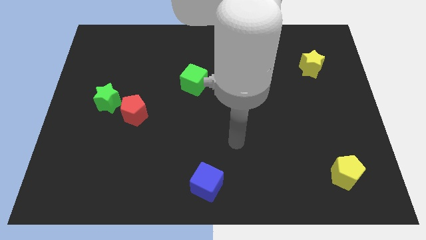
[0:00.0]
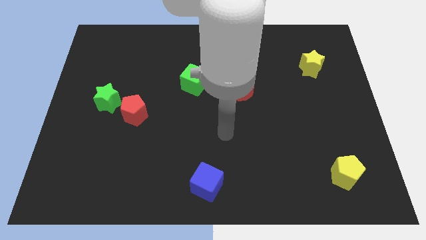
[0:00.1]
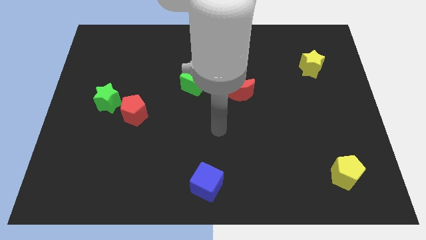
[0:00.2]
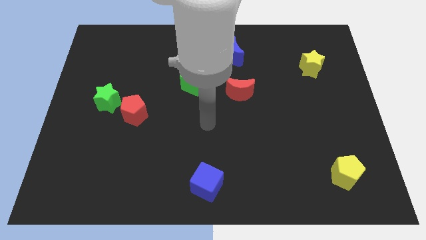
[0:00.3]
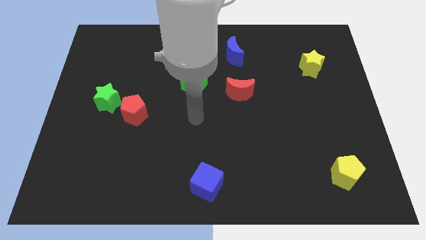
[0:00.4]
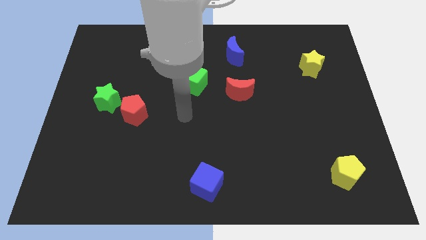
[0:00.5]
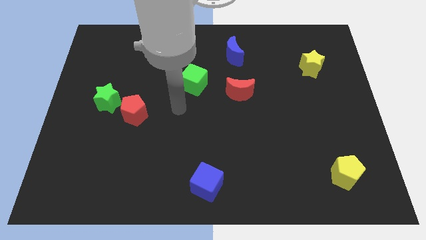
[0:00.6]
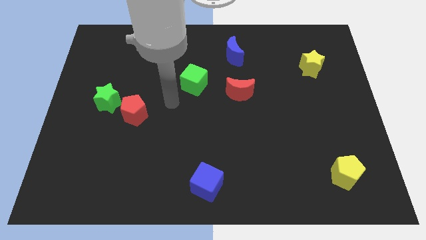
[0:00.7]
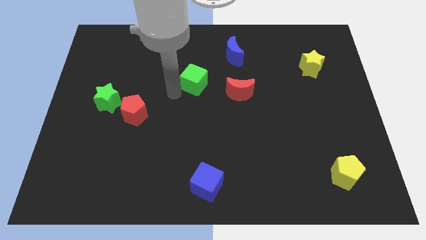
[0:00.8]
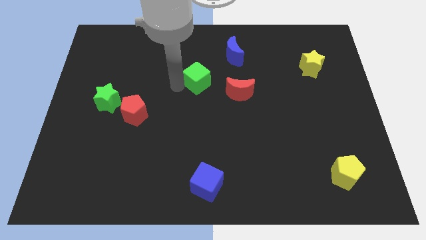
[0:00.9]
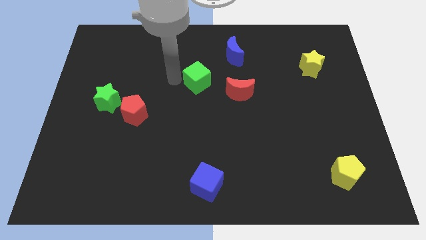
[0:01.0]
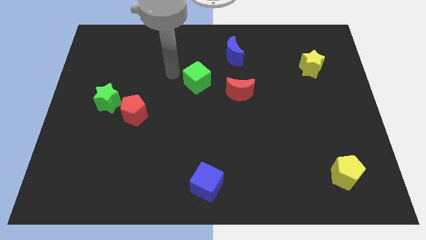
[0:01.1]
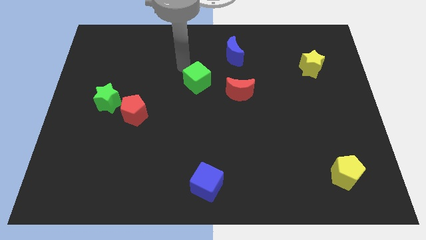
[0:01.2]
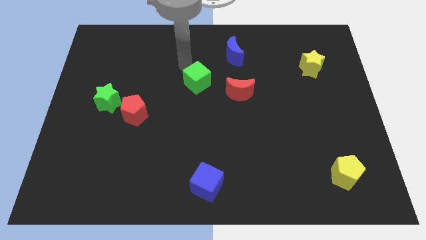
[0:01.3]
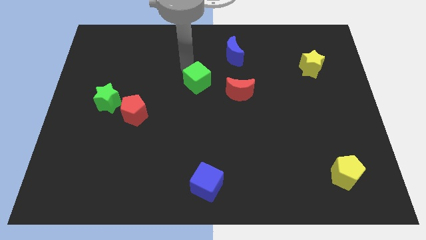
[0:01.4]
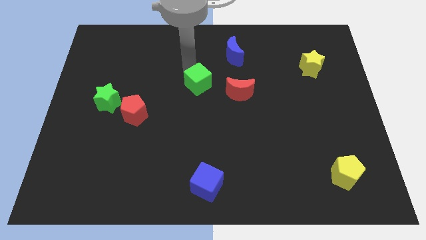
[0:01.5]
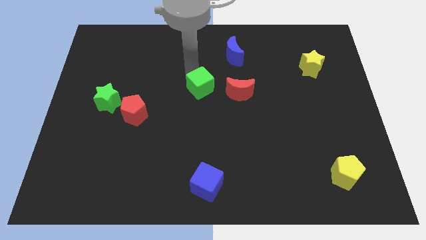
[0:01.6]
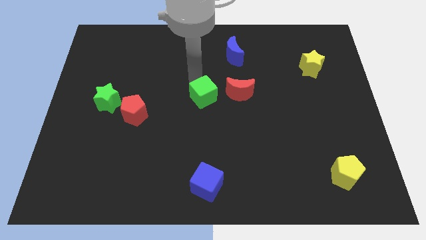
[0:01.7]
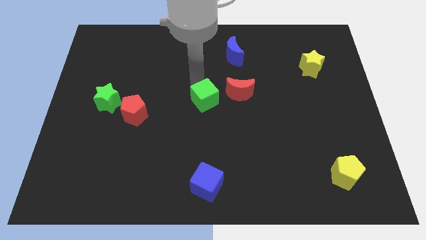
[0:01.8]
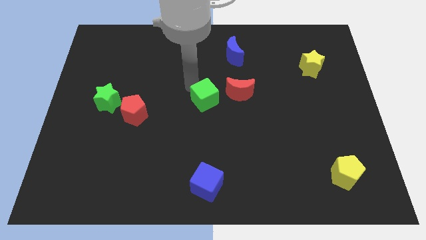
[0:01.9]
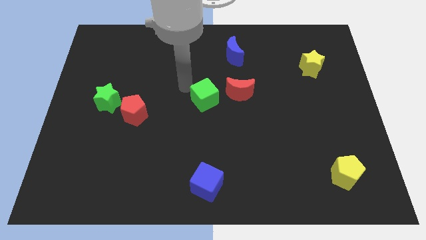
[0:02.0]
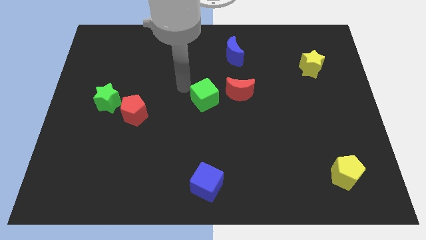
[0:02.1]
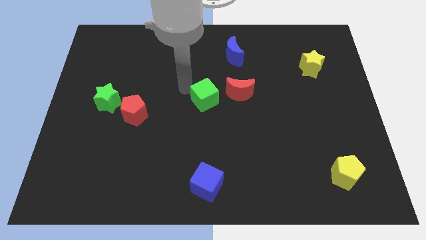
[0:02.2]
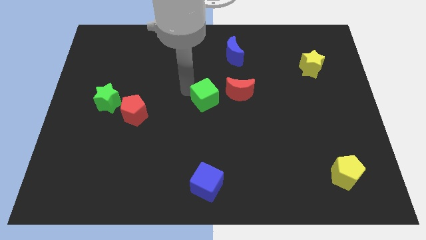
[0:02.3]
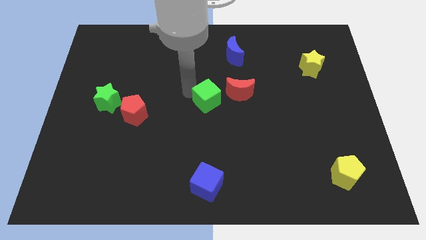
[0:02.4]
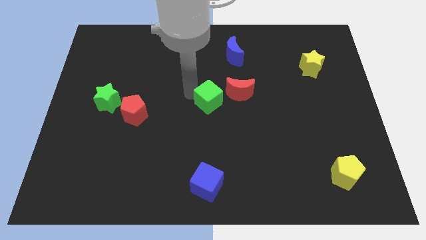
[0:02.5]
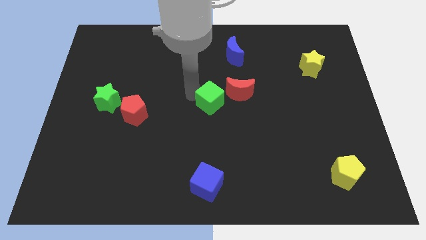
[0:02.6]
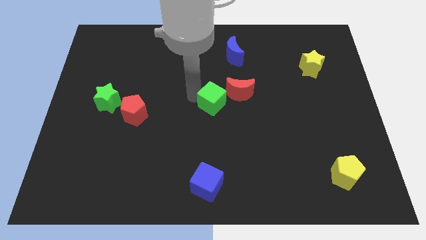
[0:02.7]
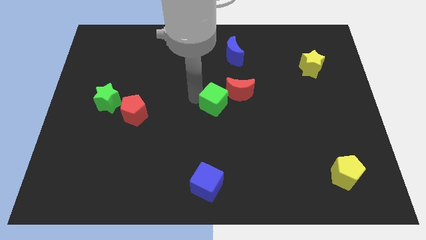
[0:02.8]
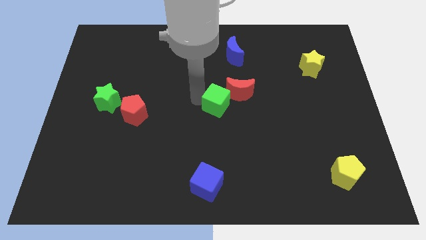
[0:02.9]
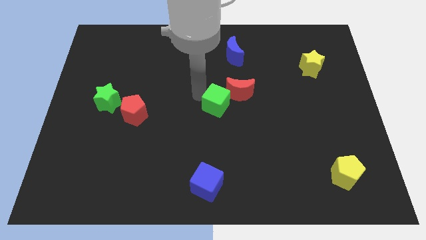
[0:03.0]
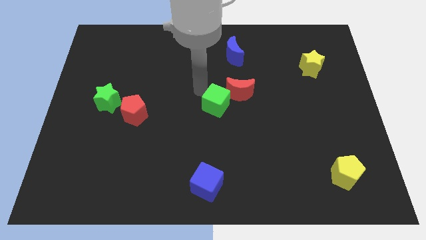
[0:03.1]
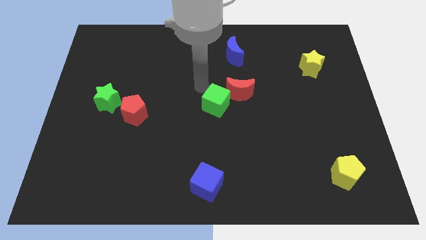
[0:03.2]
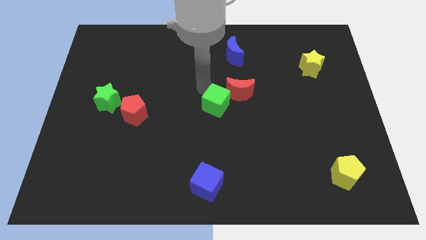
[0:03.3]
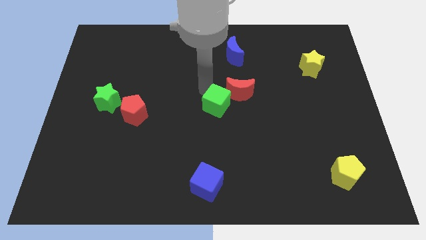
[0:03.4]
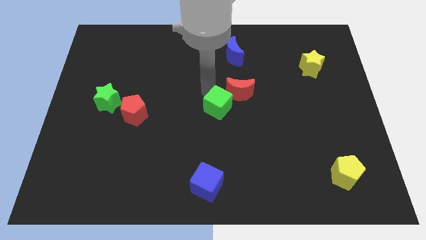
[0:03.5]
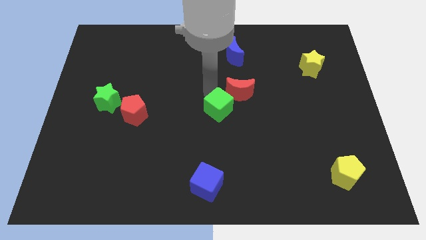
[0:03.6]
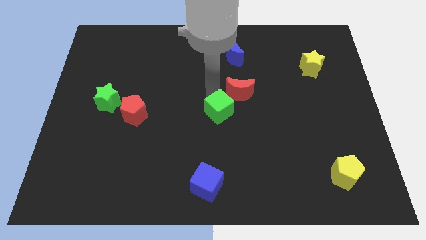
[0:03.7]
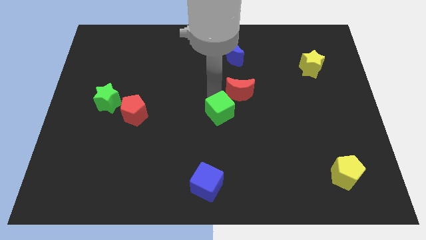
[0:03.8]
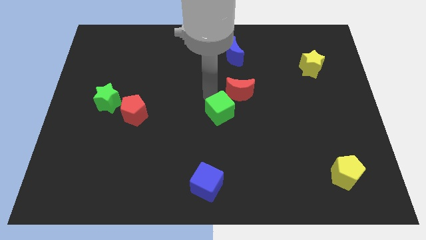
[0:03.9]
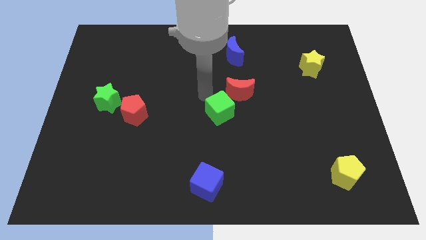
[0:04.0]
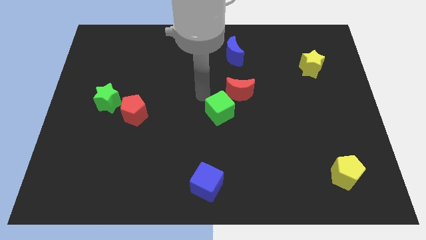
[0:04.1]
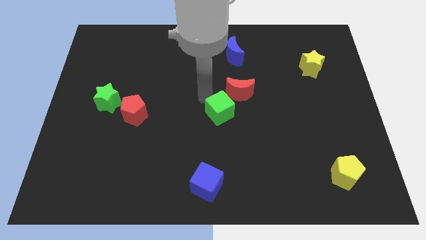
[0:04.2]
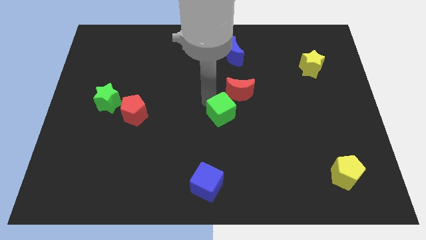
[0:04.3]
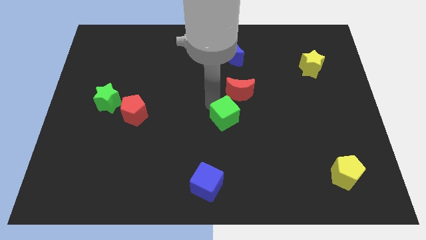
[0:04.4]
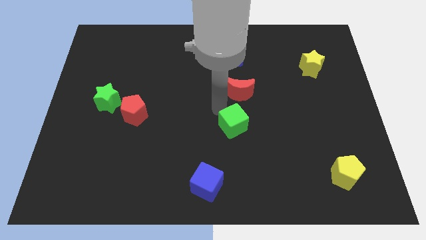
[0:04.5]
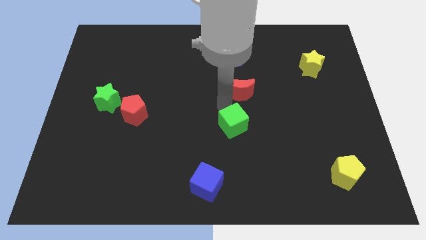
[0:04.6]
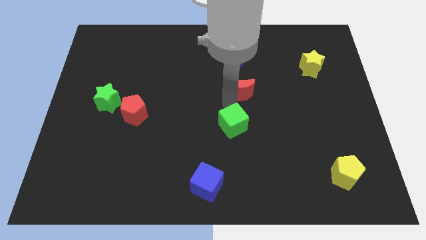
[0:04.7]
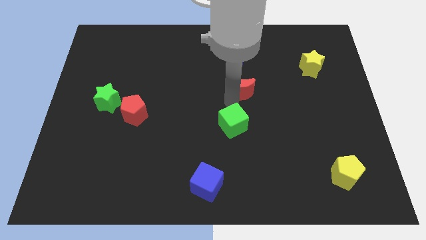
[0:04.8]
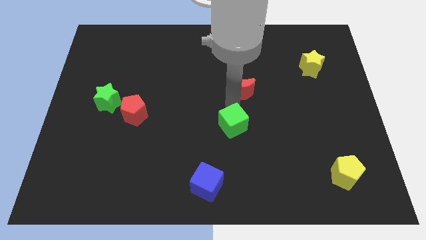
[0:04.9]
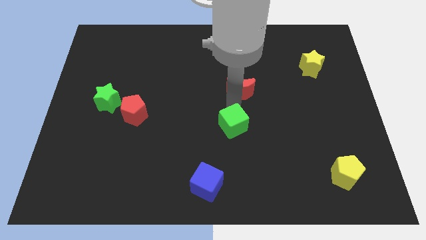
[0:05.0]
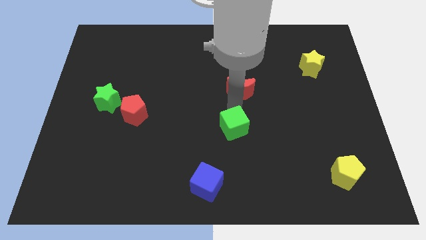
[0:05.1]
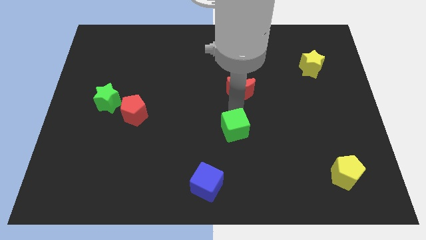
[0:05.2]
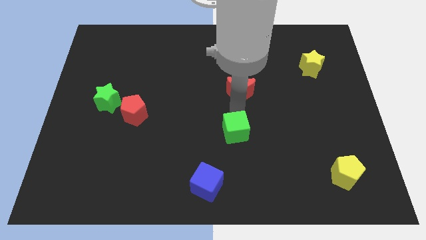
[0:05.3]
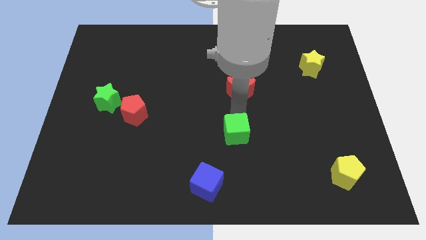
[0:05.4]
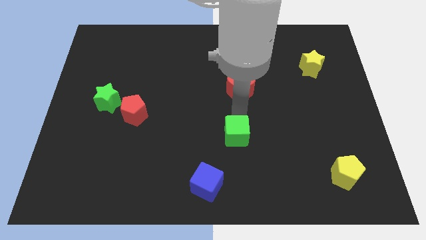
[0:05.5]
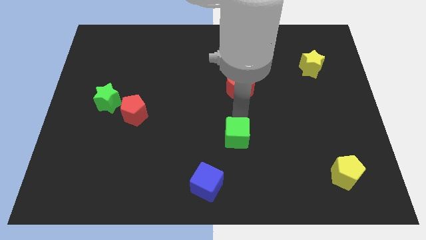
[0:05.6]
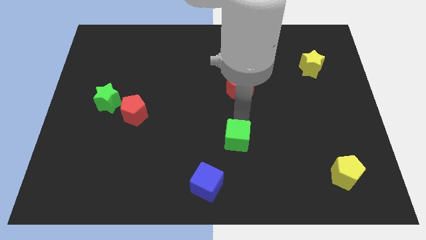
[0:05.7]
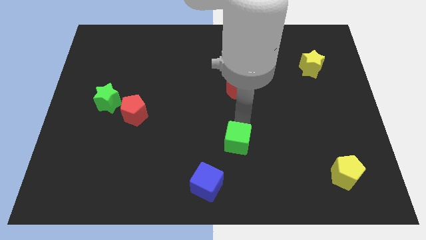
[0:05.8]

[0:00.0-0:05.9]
put the green cube diagonally up and to the right of the blue cube

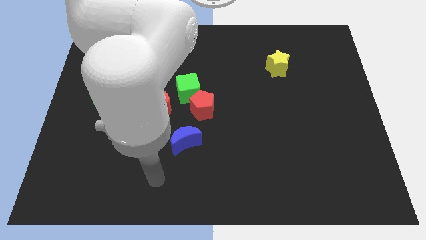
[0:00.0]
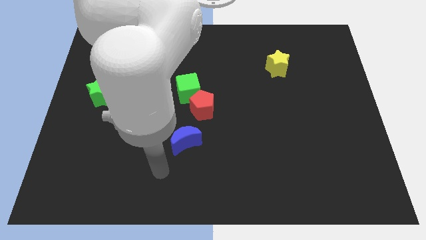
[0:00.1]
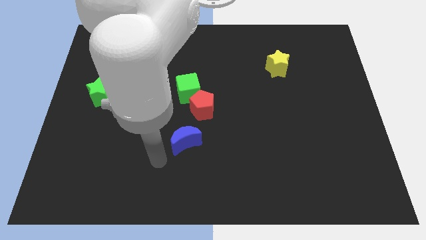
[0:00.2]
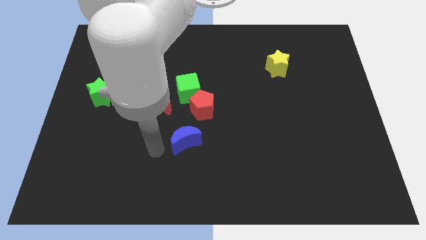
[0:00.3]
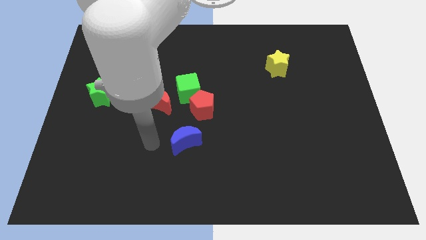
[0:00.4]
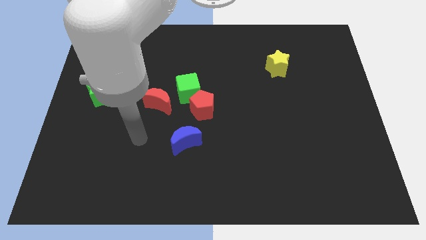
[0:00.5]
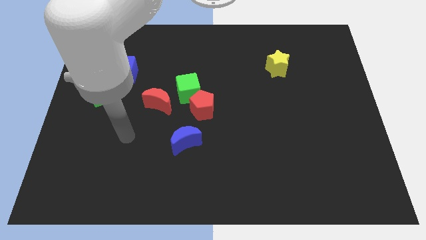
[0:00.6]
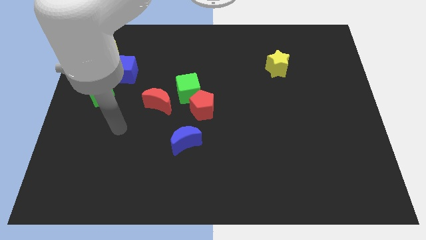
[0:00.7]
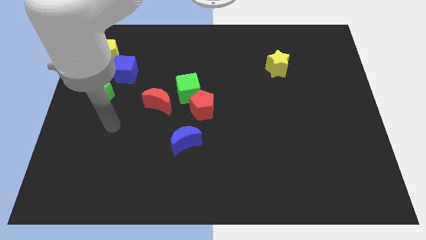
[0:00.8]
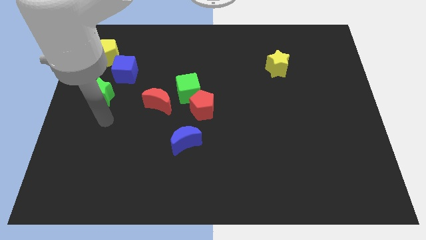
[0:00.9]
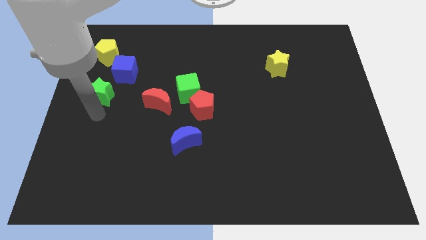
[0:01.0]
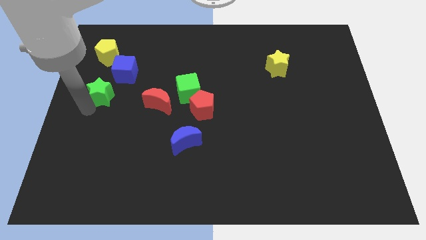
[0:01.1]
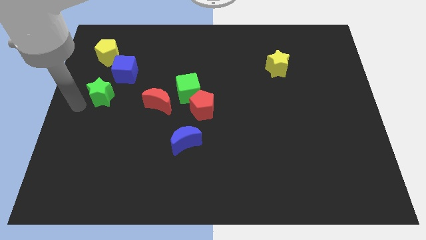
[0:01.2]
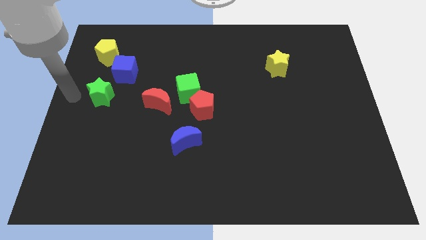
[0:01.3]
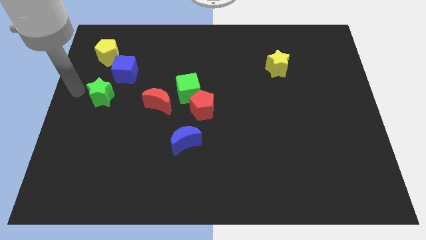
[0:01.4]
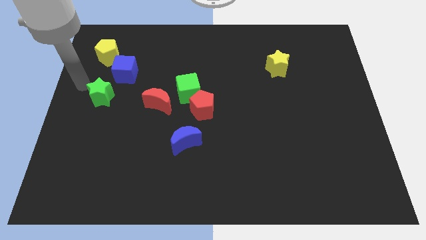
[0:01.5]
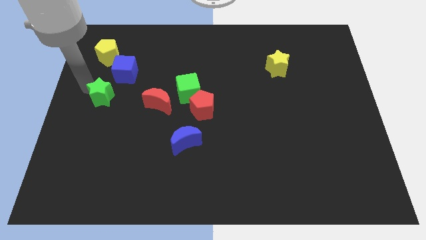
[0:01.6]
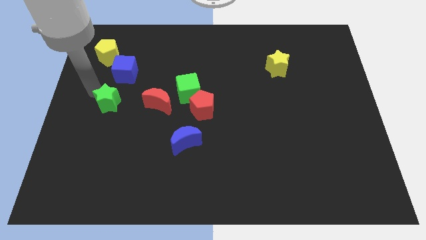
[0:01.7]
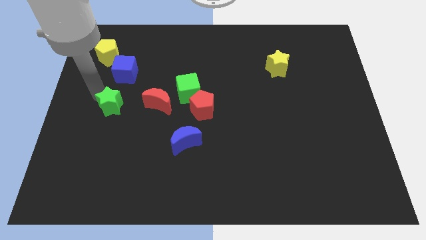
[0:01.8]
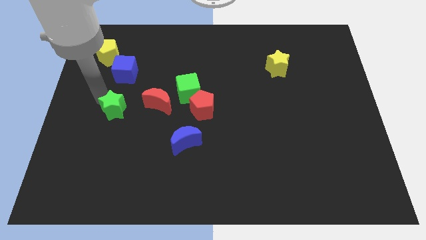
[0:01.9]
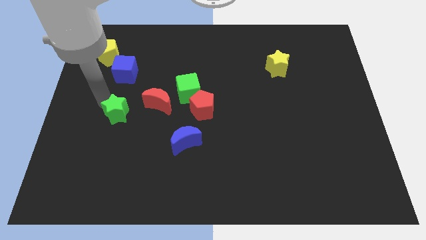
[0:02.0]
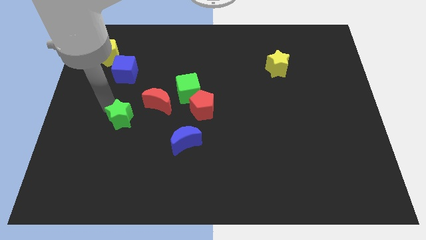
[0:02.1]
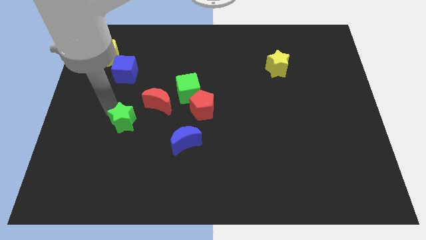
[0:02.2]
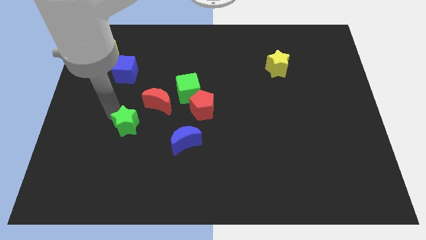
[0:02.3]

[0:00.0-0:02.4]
put the green star just left of the blue moon
